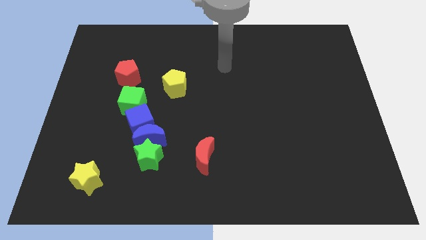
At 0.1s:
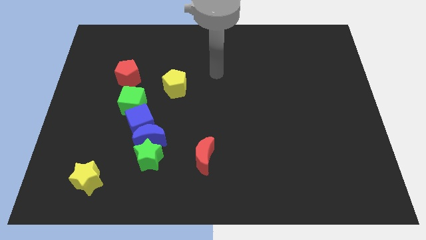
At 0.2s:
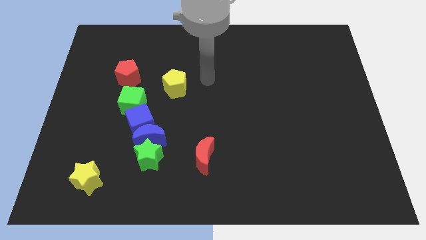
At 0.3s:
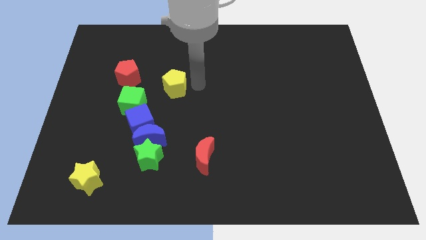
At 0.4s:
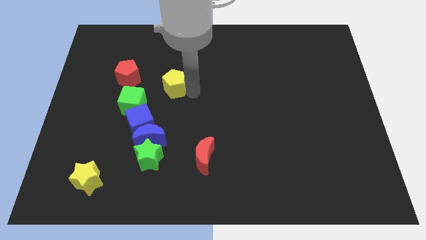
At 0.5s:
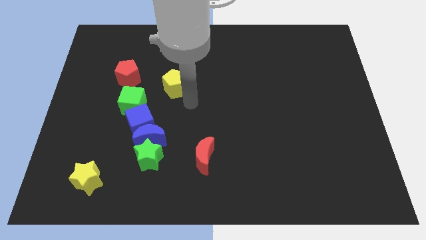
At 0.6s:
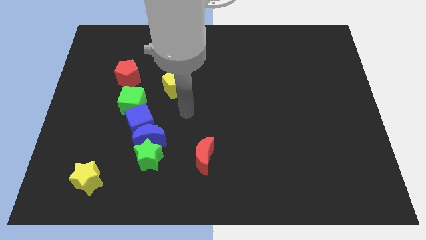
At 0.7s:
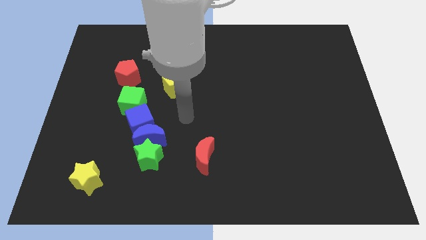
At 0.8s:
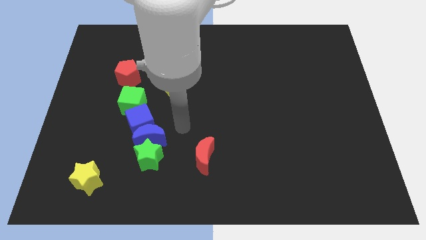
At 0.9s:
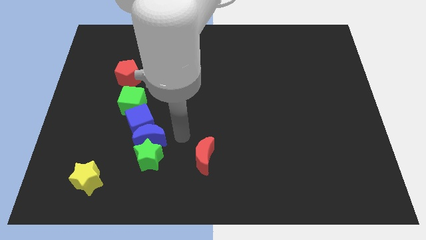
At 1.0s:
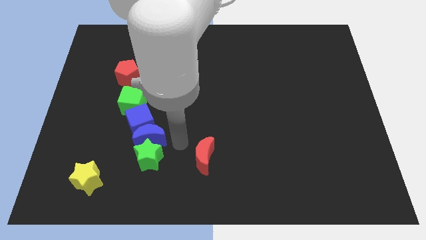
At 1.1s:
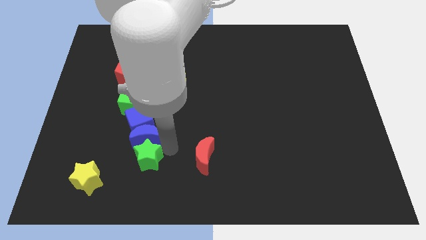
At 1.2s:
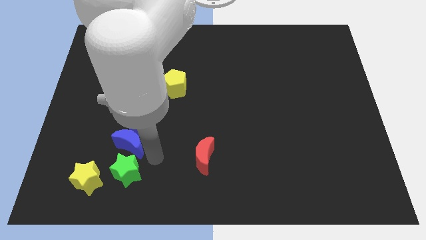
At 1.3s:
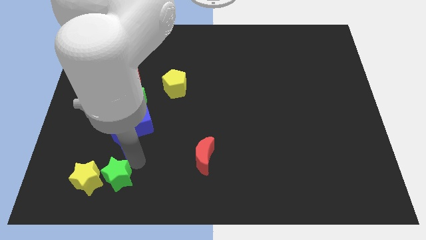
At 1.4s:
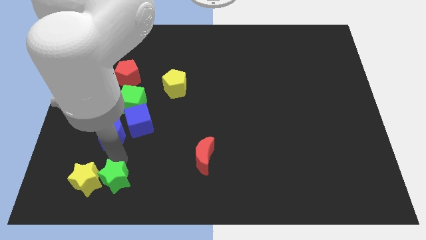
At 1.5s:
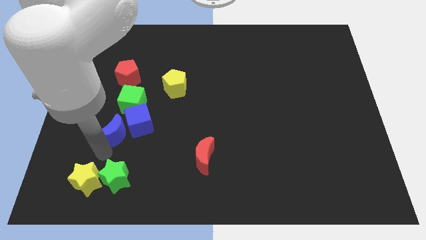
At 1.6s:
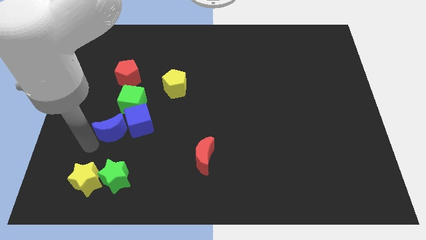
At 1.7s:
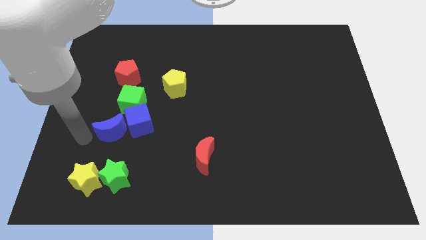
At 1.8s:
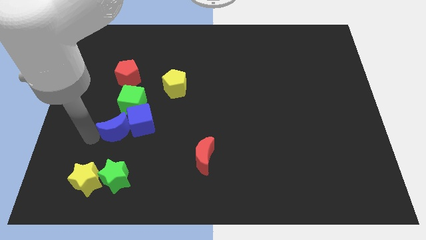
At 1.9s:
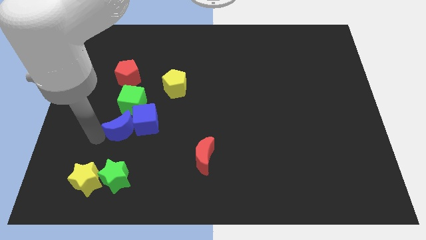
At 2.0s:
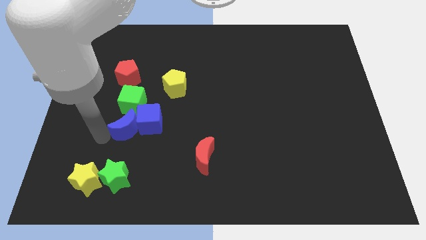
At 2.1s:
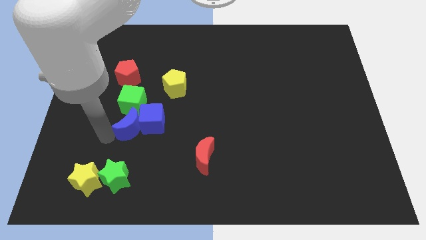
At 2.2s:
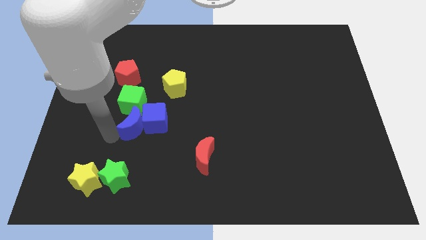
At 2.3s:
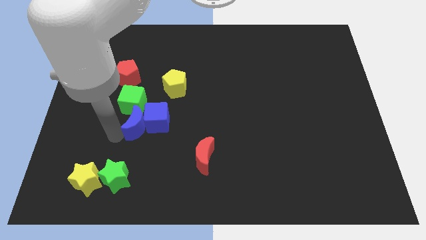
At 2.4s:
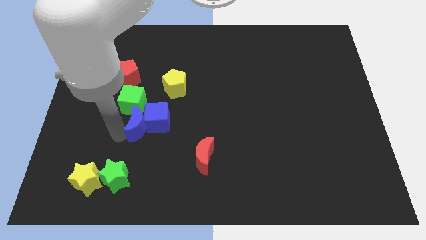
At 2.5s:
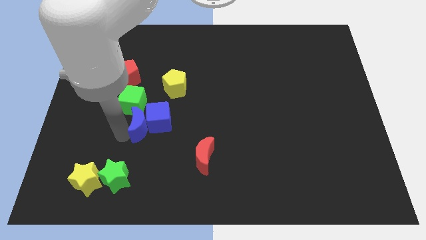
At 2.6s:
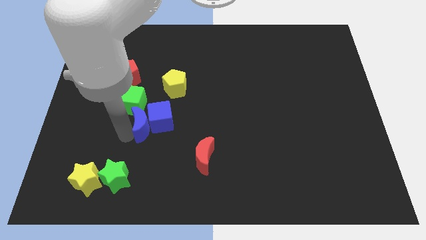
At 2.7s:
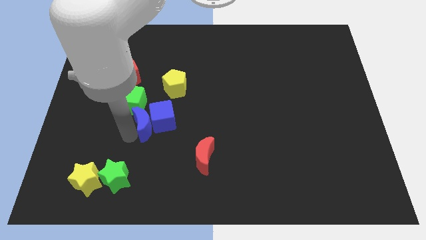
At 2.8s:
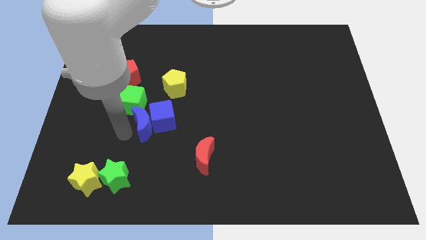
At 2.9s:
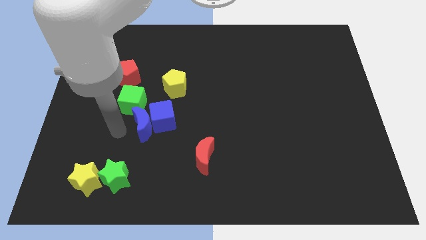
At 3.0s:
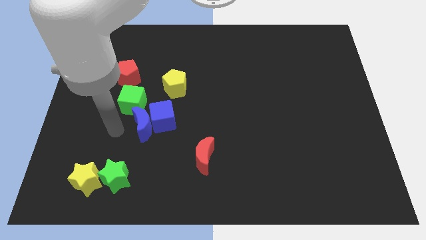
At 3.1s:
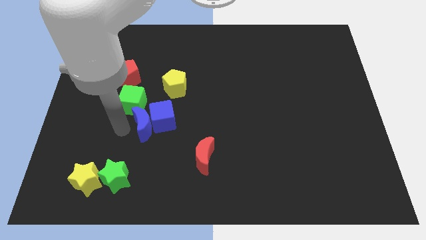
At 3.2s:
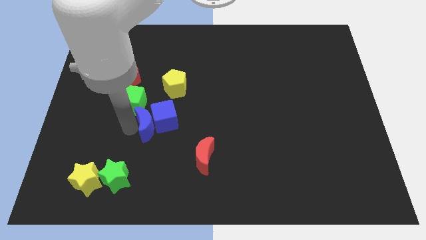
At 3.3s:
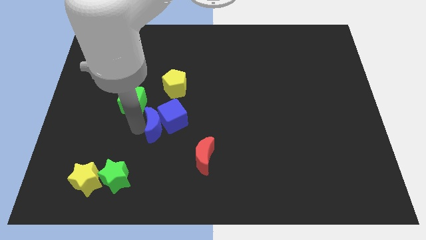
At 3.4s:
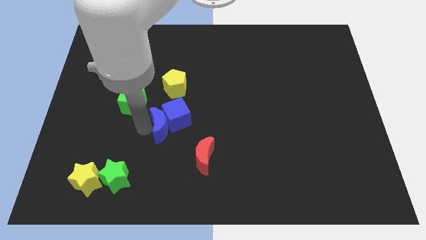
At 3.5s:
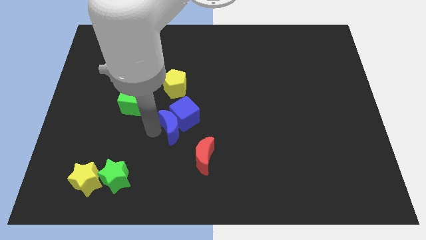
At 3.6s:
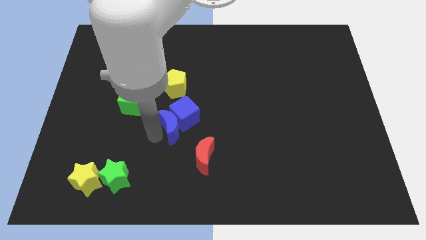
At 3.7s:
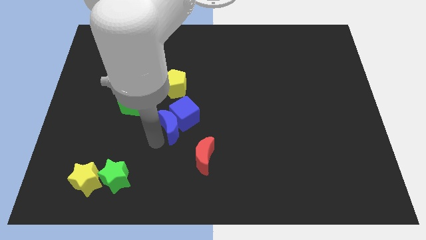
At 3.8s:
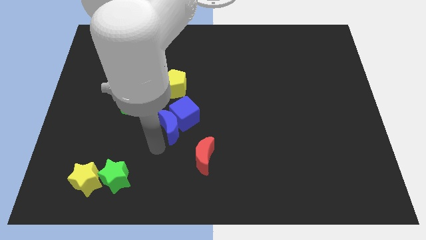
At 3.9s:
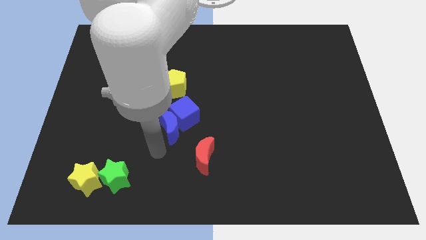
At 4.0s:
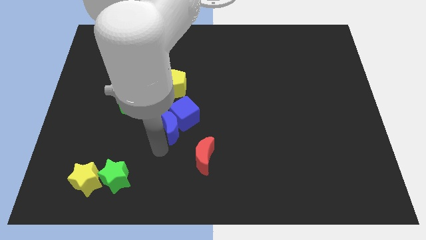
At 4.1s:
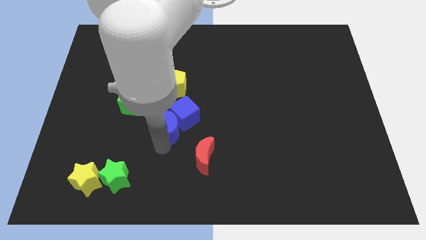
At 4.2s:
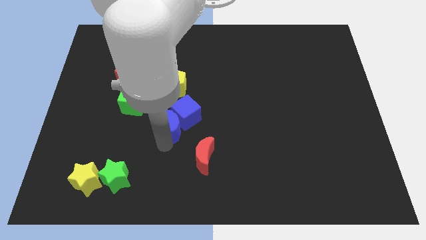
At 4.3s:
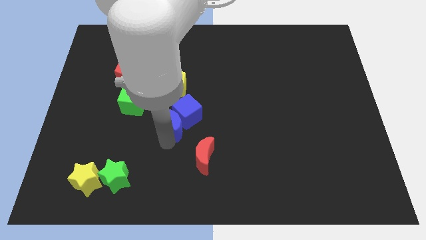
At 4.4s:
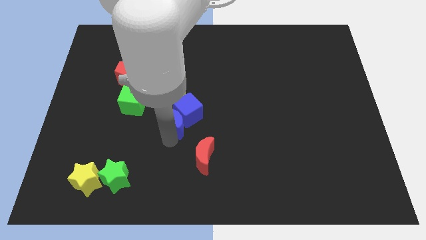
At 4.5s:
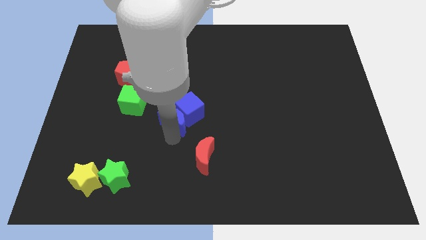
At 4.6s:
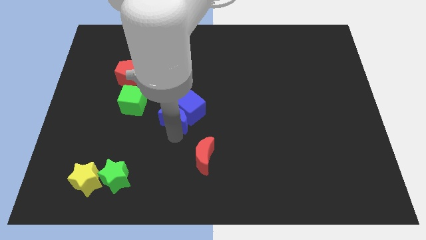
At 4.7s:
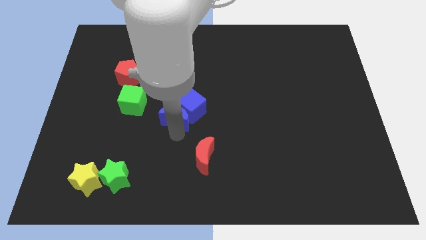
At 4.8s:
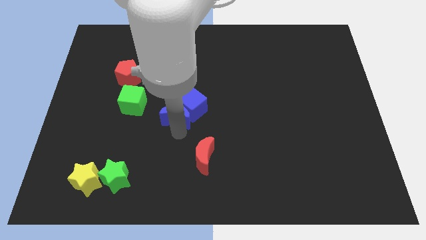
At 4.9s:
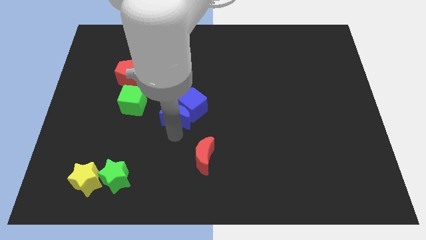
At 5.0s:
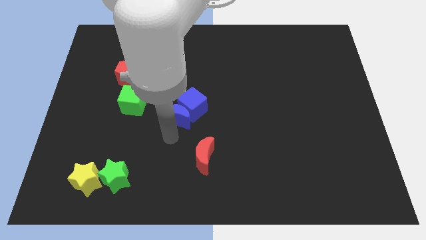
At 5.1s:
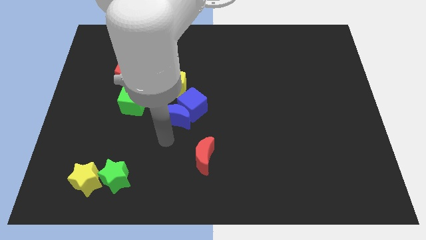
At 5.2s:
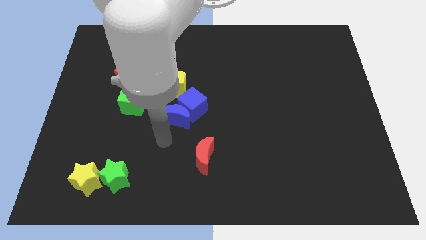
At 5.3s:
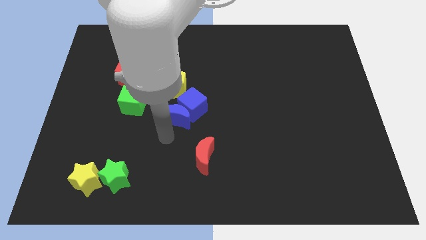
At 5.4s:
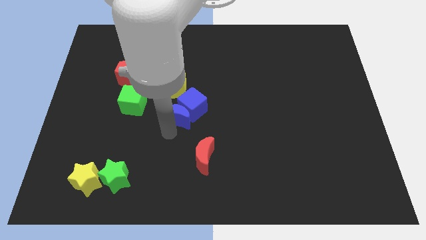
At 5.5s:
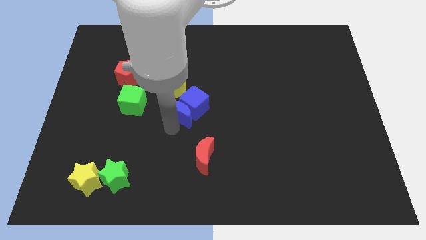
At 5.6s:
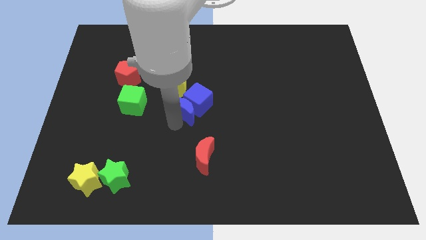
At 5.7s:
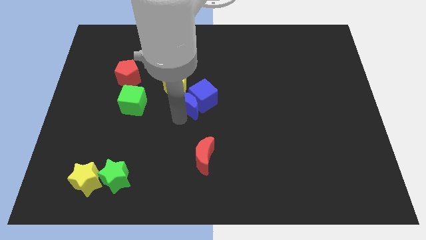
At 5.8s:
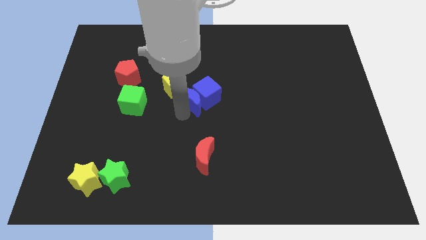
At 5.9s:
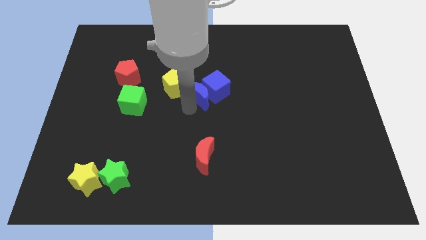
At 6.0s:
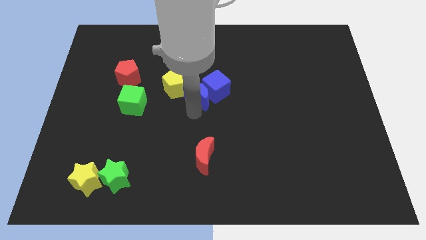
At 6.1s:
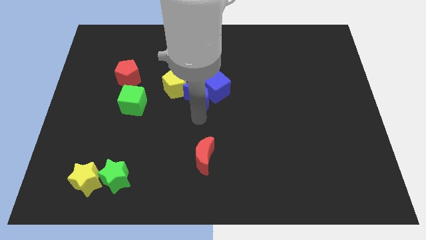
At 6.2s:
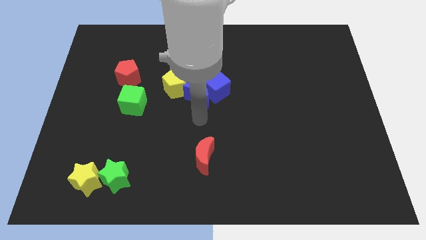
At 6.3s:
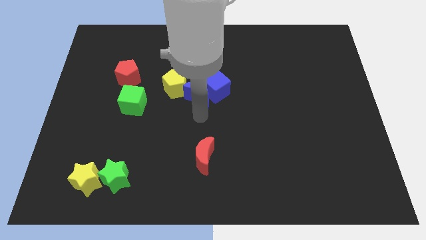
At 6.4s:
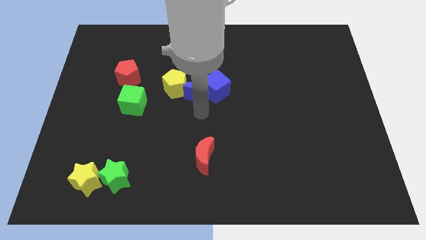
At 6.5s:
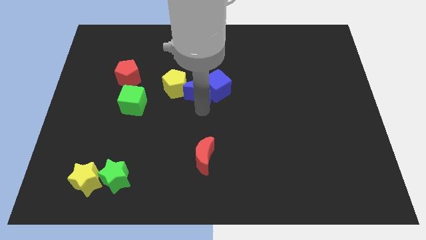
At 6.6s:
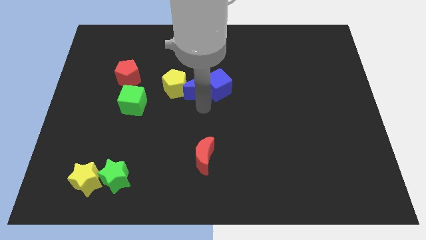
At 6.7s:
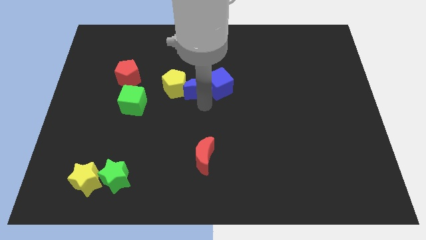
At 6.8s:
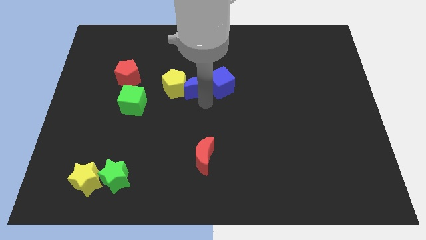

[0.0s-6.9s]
move the blue moon diagonally up and to the right of the yellow pentagon

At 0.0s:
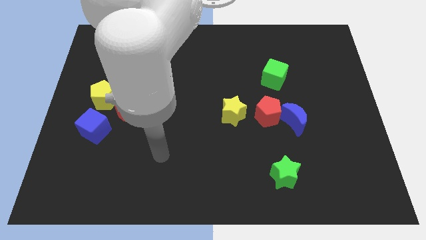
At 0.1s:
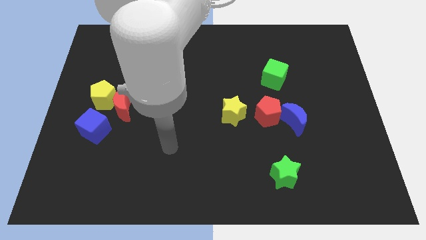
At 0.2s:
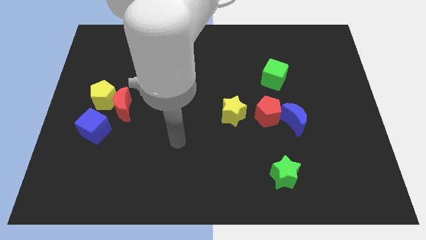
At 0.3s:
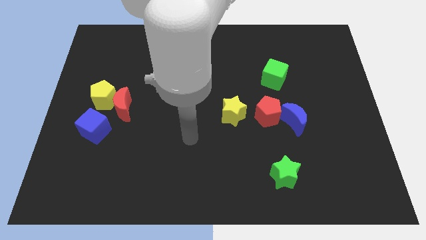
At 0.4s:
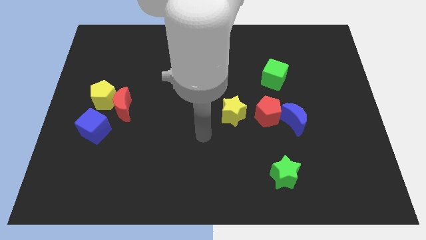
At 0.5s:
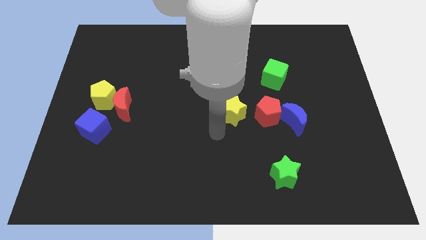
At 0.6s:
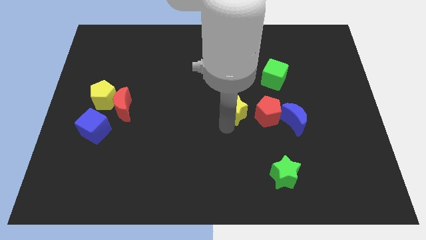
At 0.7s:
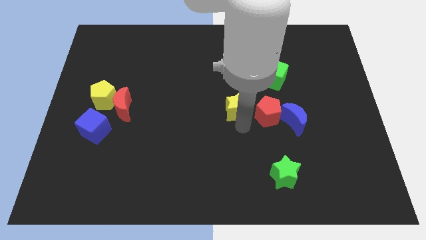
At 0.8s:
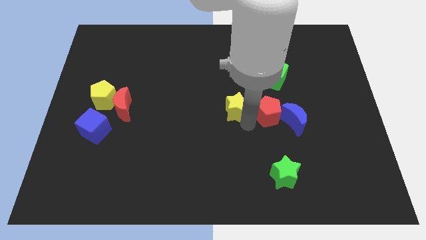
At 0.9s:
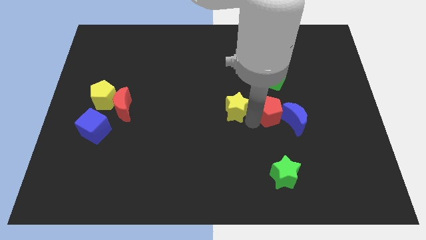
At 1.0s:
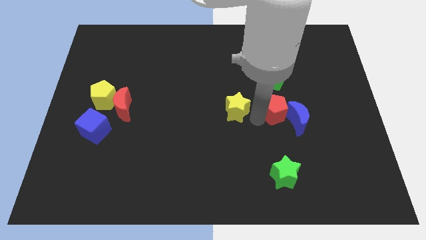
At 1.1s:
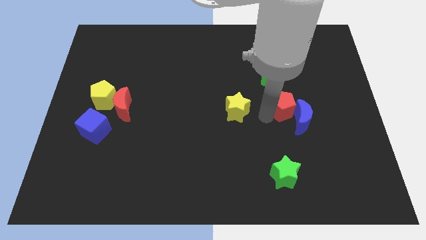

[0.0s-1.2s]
slide the red pentagon to the top of the blue moon
